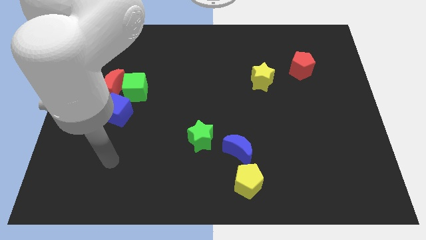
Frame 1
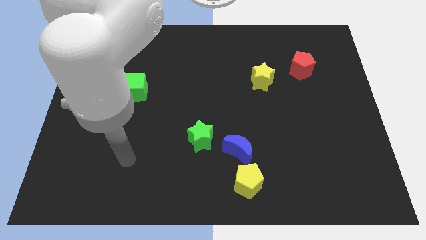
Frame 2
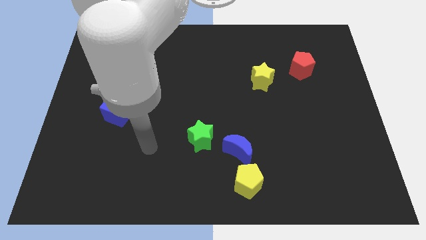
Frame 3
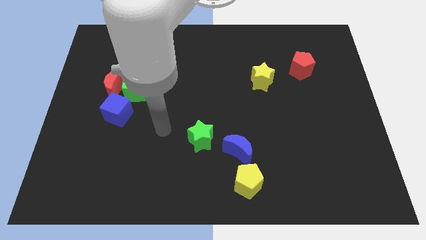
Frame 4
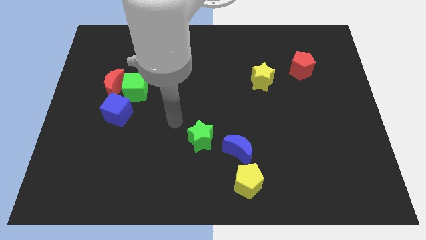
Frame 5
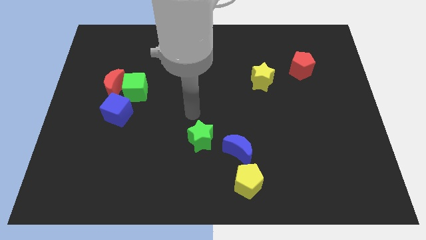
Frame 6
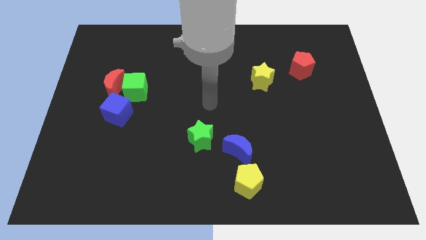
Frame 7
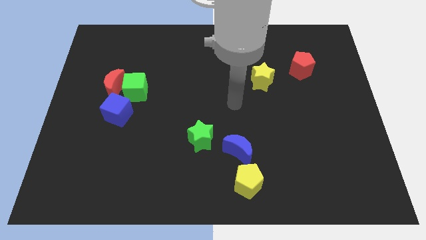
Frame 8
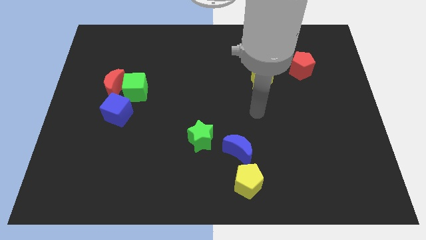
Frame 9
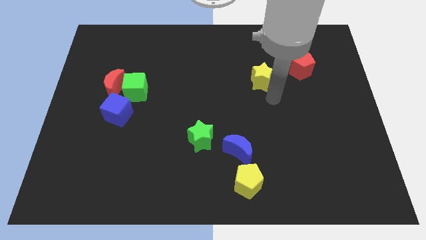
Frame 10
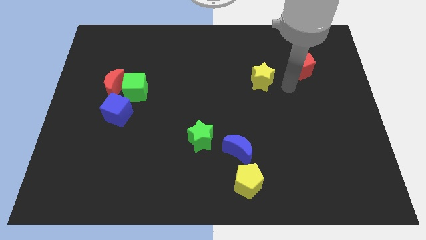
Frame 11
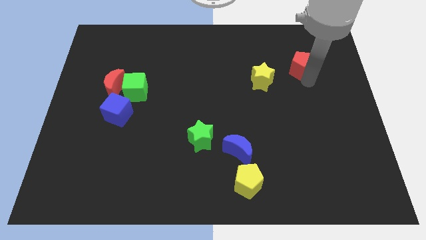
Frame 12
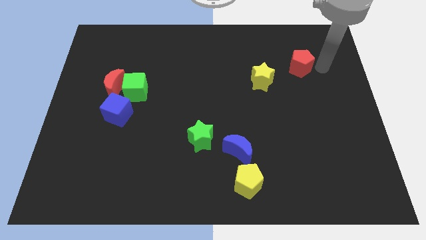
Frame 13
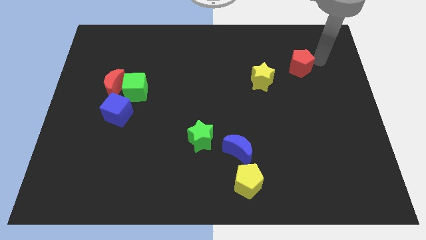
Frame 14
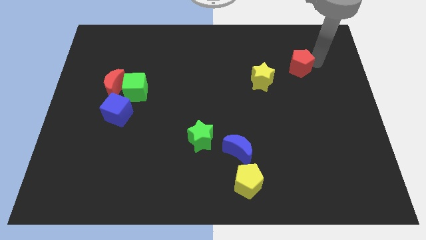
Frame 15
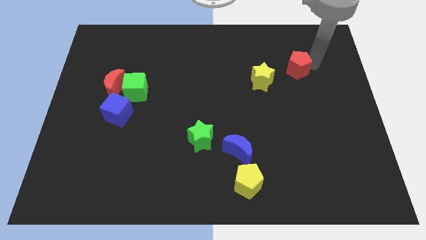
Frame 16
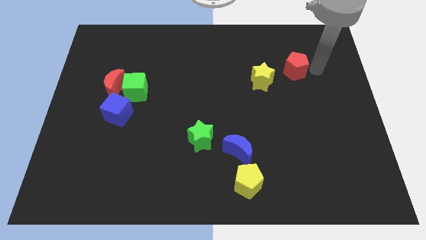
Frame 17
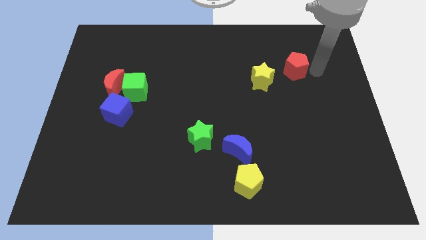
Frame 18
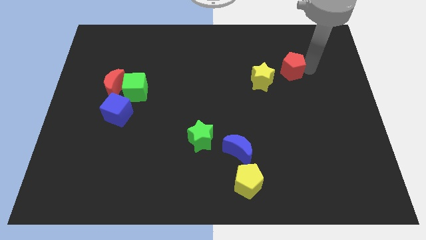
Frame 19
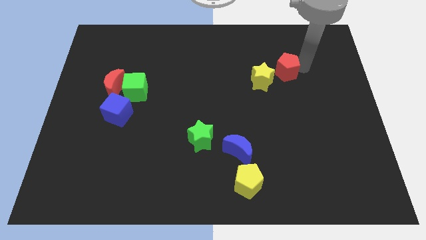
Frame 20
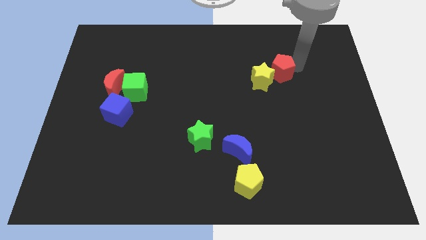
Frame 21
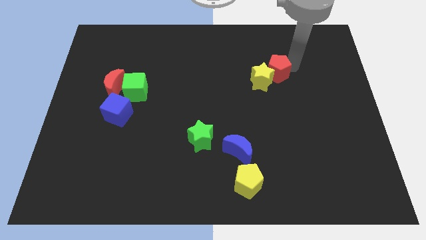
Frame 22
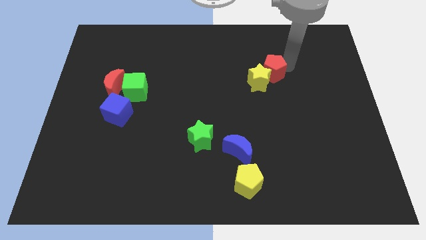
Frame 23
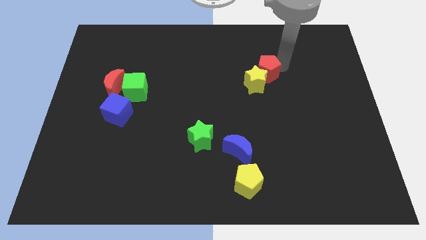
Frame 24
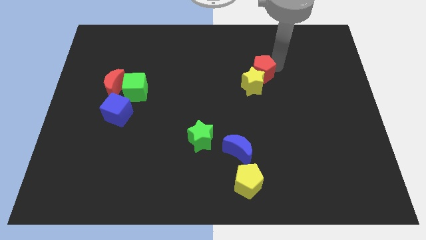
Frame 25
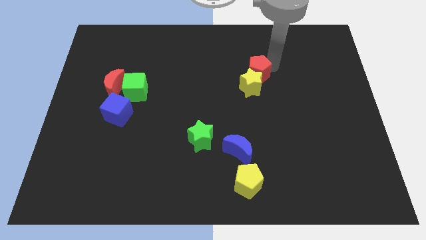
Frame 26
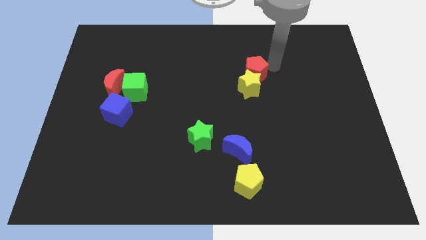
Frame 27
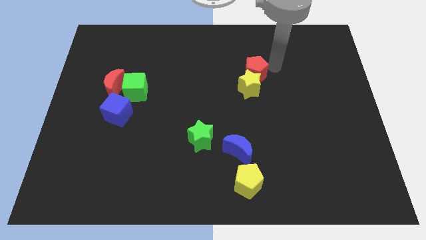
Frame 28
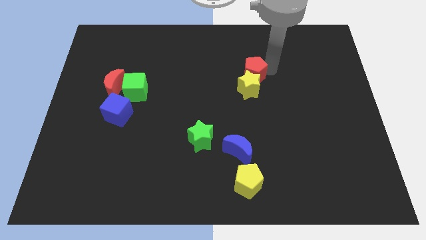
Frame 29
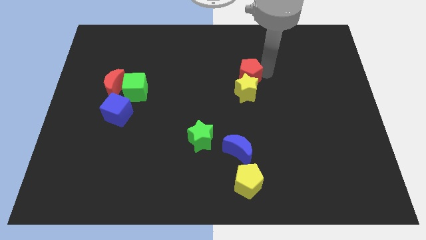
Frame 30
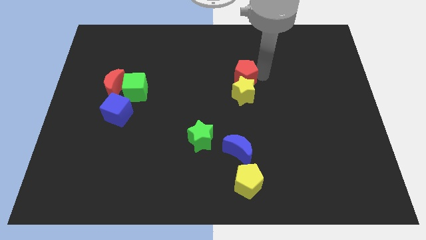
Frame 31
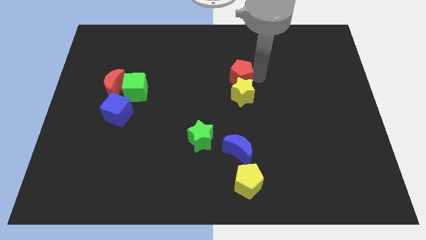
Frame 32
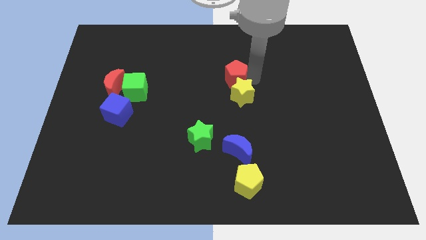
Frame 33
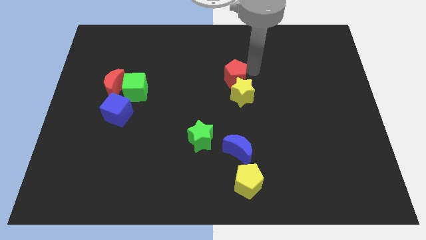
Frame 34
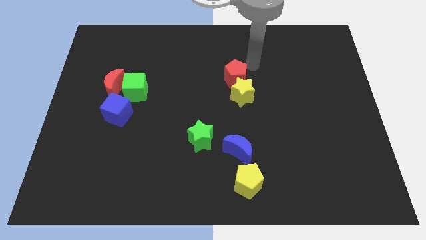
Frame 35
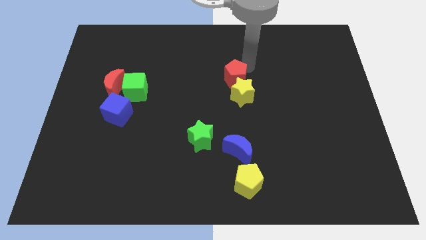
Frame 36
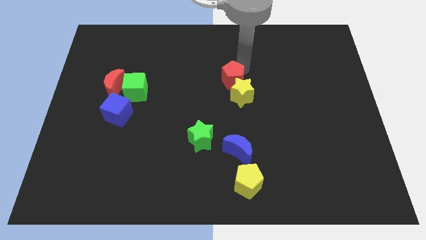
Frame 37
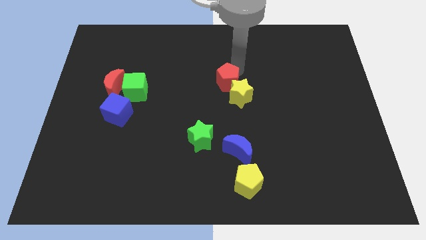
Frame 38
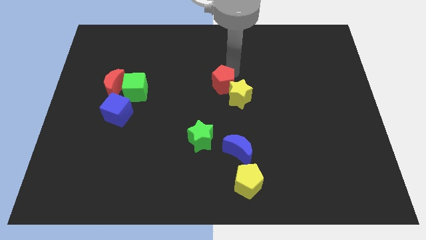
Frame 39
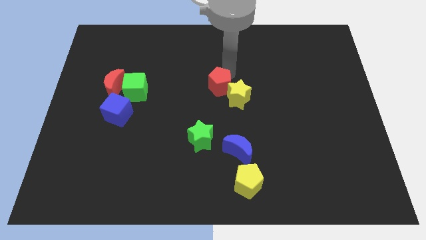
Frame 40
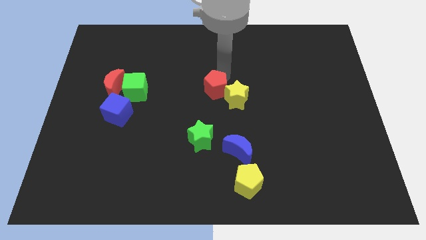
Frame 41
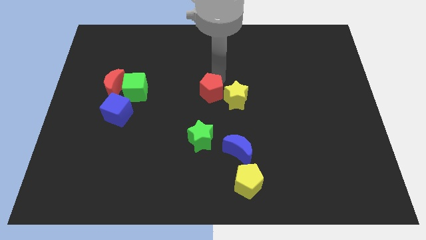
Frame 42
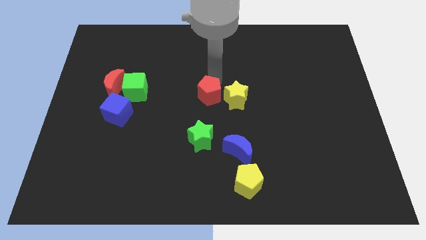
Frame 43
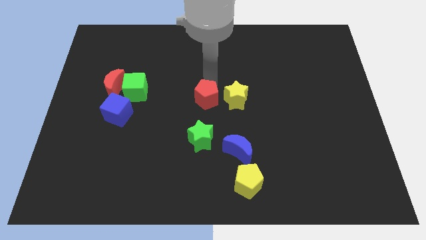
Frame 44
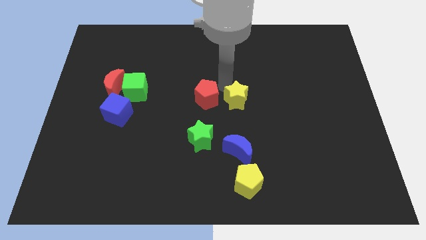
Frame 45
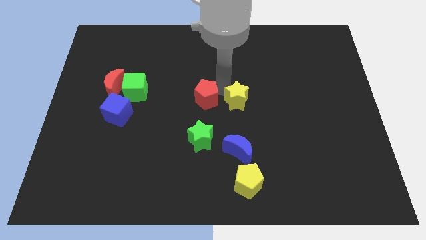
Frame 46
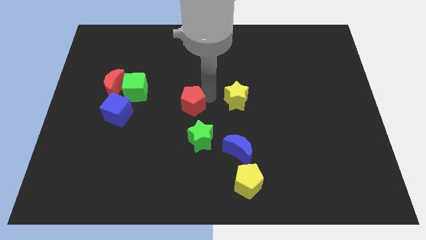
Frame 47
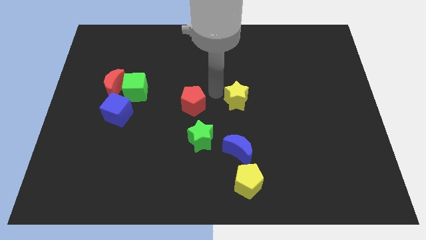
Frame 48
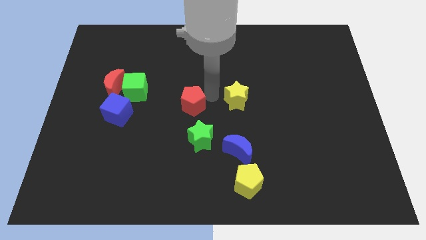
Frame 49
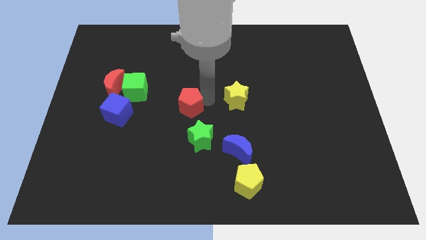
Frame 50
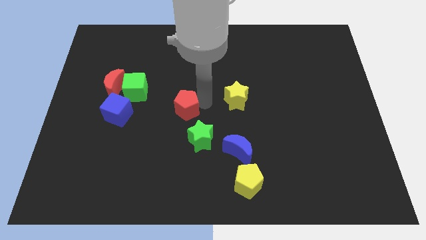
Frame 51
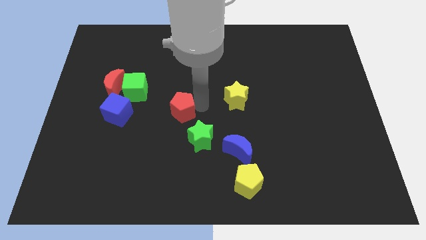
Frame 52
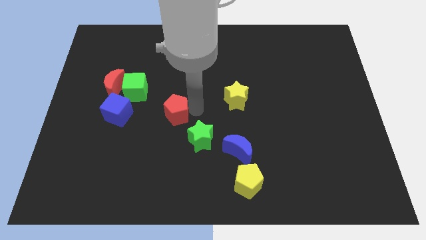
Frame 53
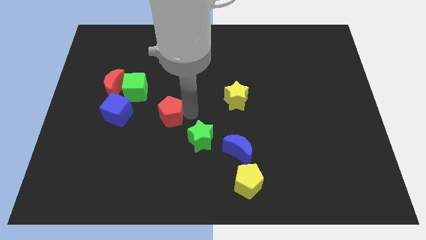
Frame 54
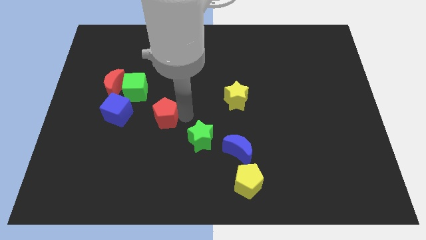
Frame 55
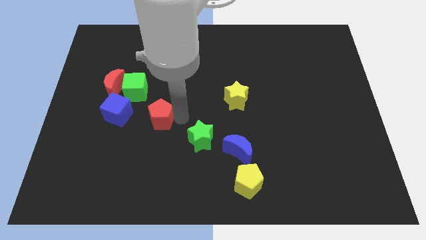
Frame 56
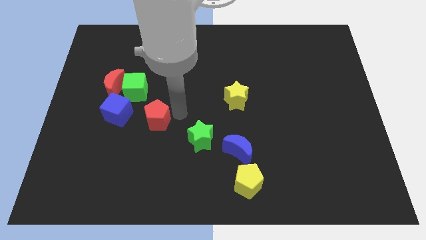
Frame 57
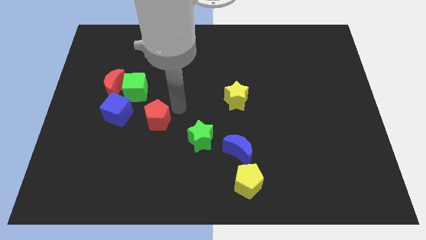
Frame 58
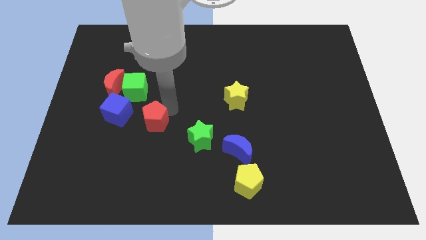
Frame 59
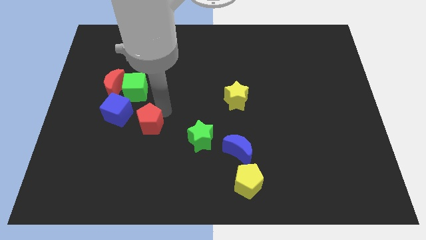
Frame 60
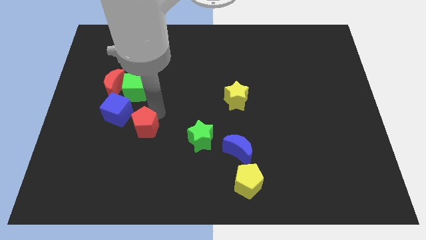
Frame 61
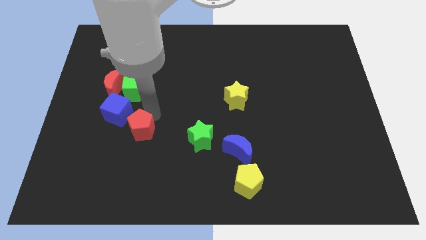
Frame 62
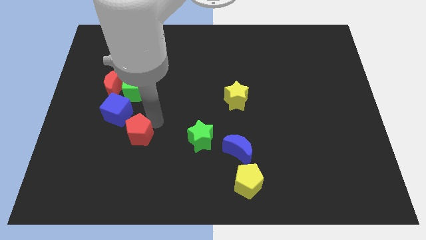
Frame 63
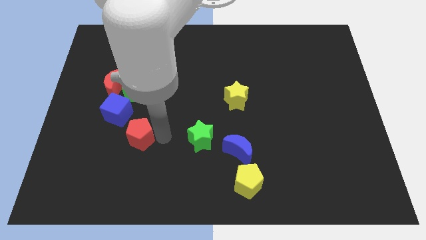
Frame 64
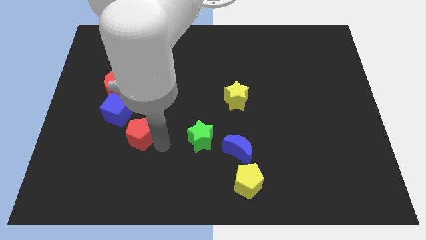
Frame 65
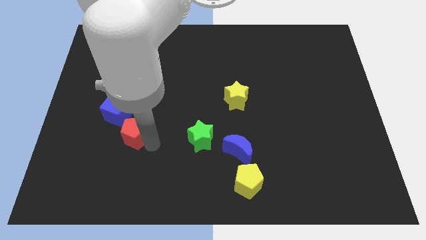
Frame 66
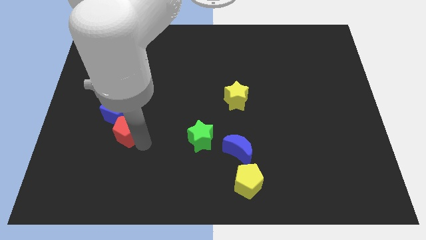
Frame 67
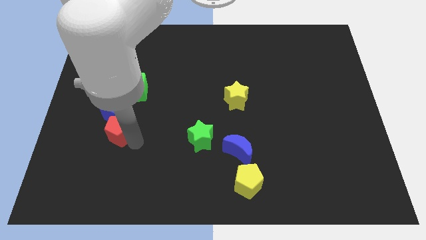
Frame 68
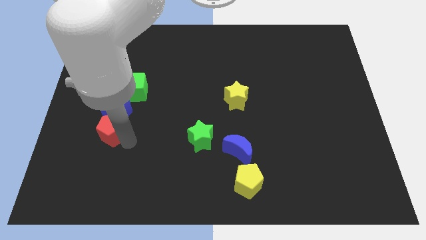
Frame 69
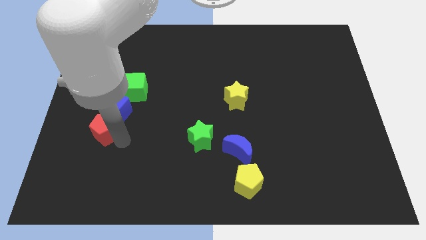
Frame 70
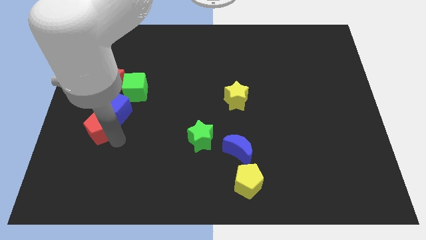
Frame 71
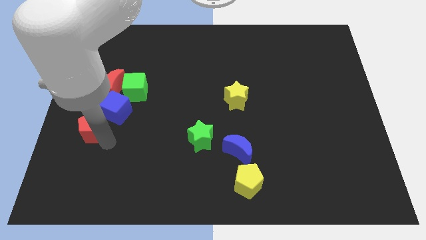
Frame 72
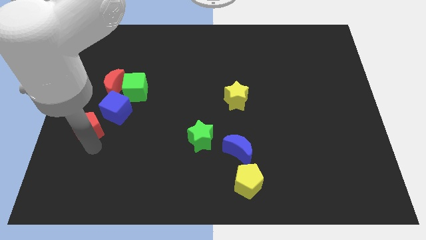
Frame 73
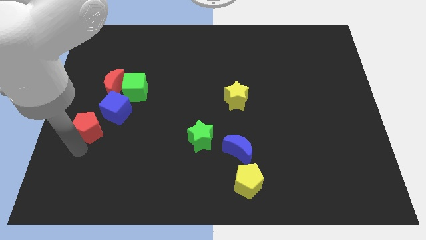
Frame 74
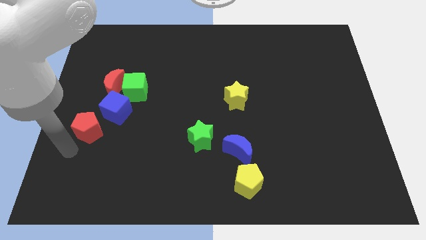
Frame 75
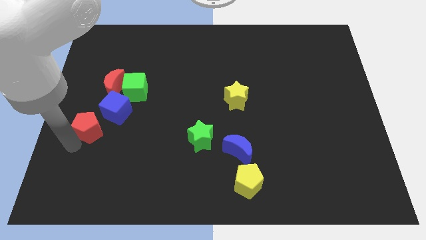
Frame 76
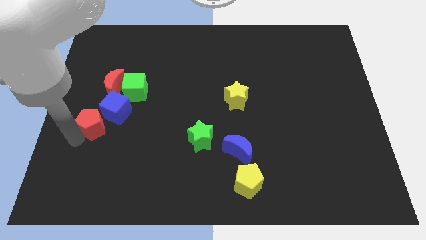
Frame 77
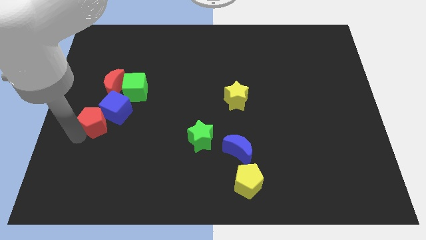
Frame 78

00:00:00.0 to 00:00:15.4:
move the red pentagon diagonally down and to the left of the green cube

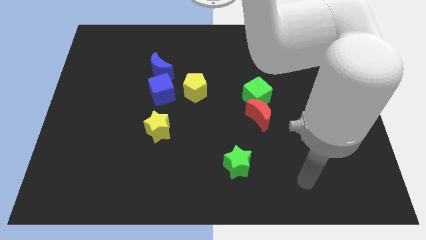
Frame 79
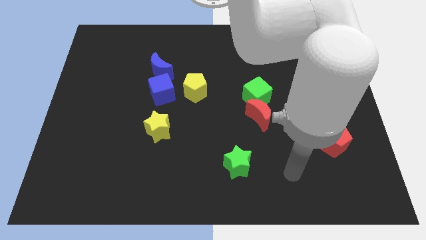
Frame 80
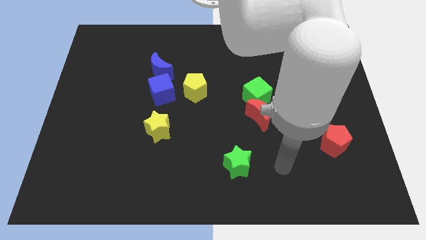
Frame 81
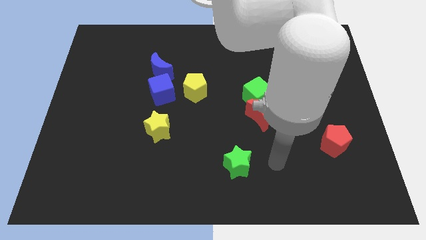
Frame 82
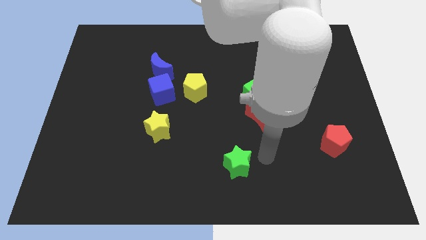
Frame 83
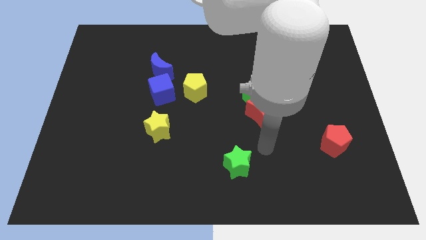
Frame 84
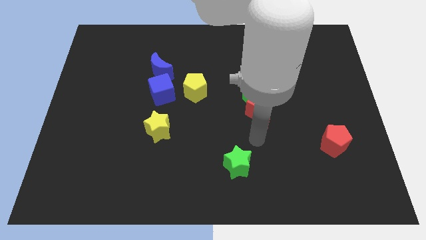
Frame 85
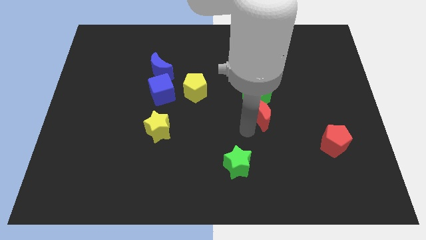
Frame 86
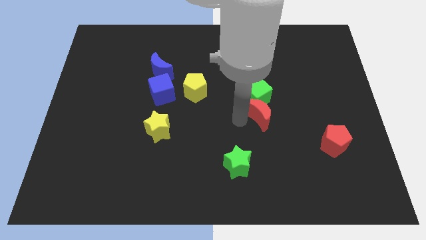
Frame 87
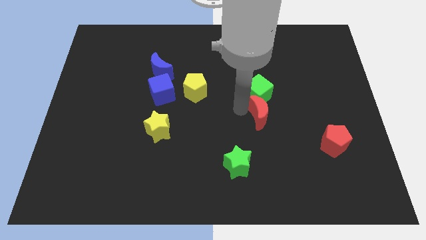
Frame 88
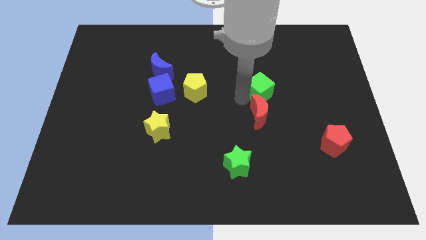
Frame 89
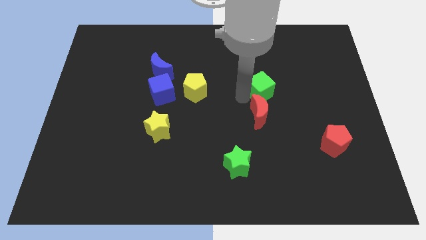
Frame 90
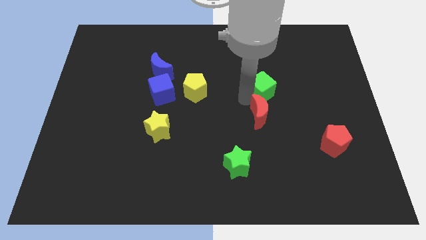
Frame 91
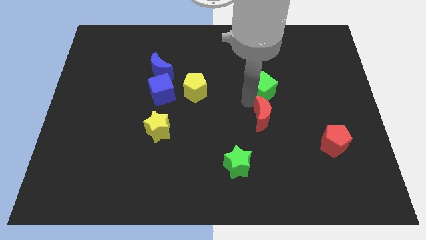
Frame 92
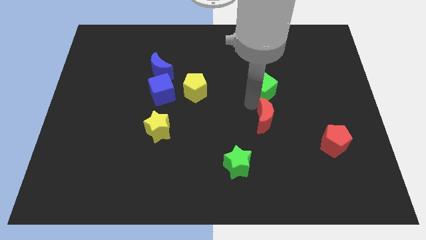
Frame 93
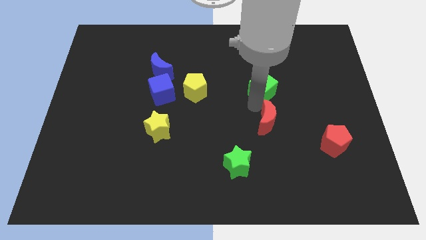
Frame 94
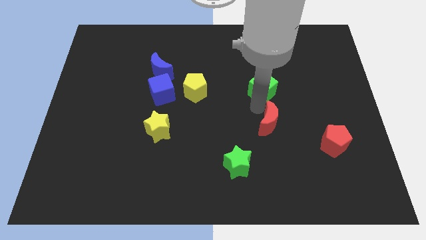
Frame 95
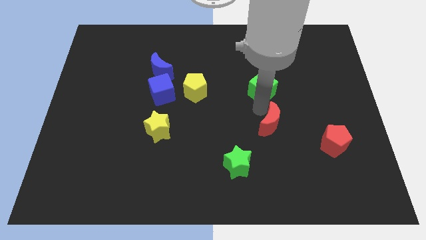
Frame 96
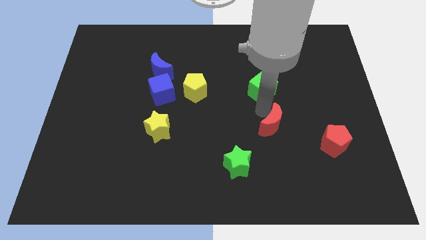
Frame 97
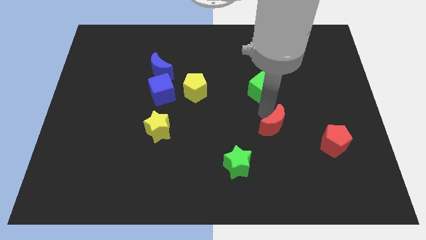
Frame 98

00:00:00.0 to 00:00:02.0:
move the red moon left of the red pentagon
